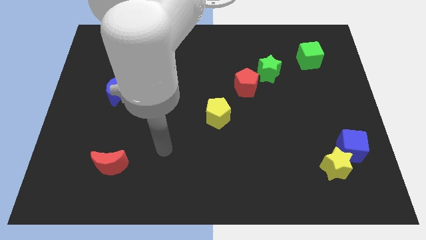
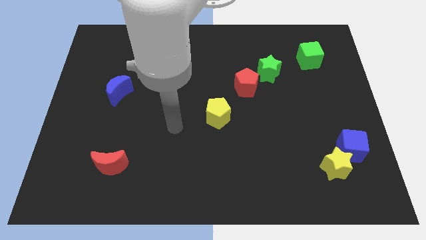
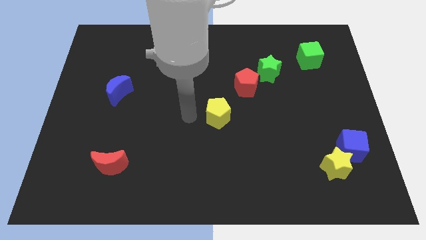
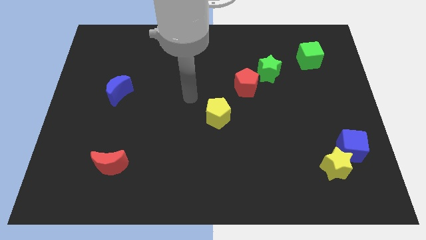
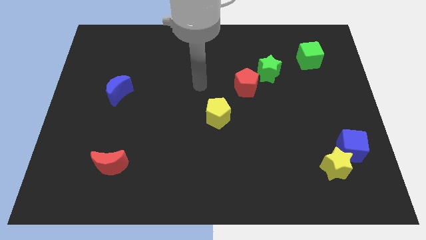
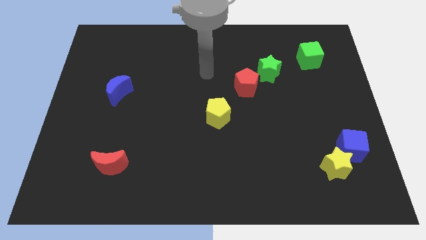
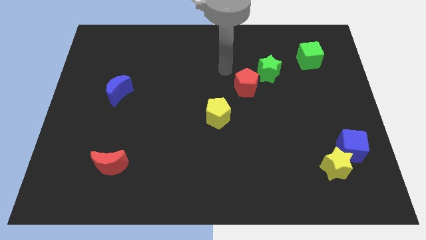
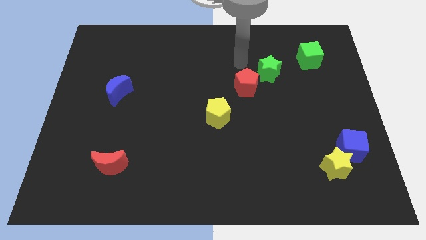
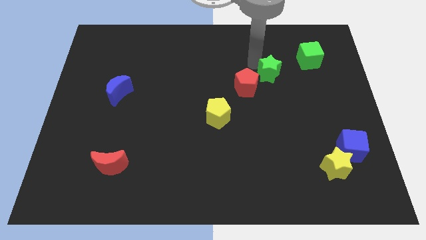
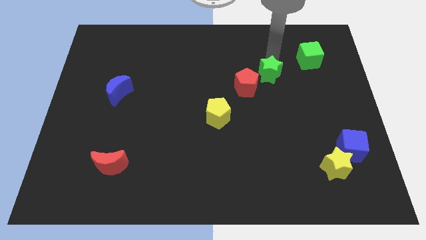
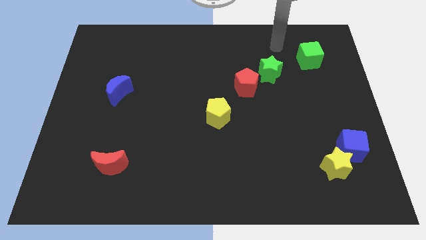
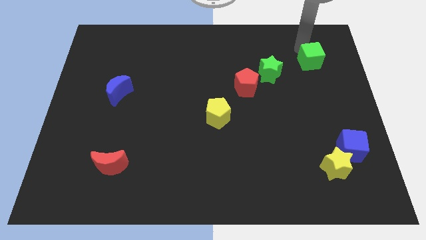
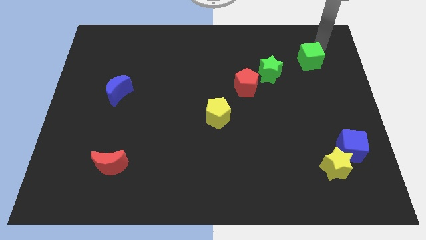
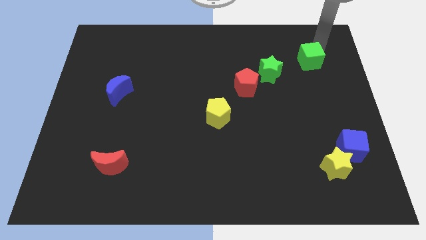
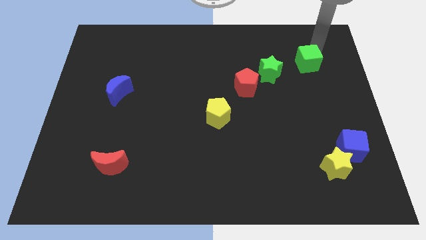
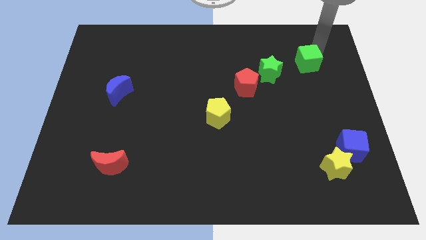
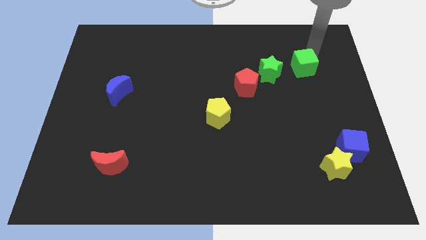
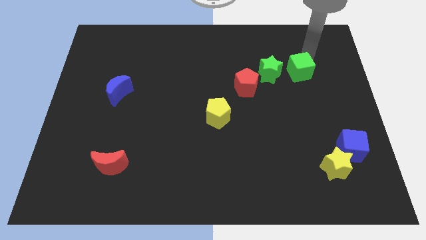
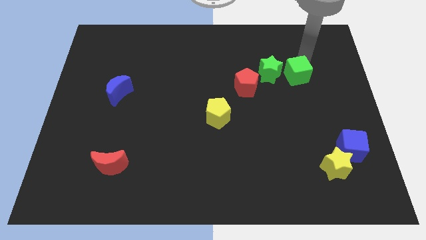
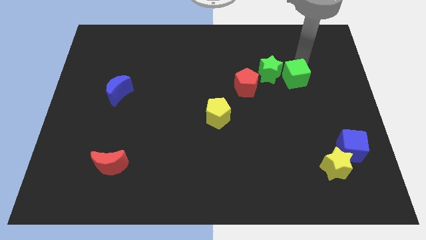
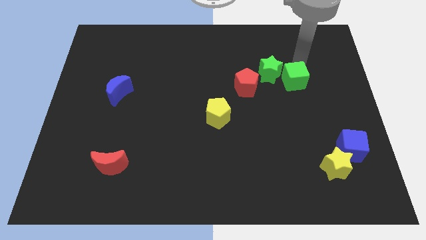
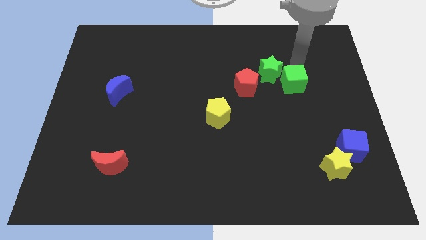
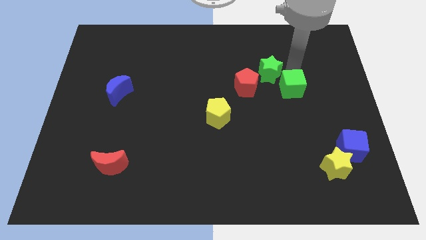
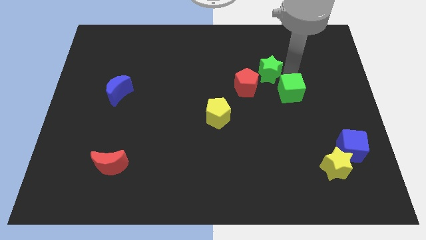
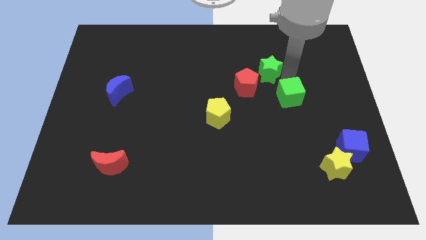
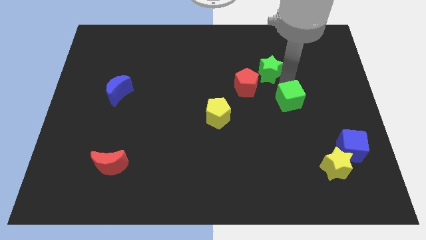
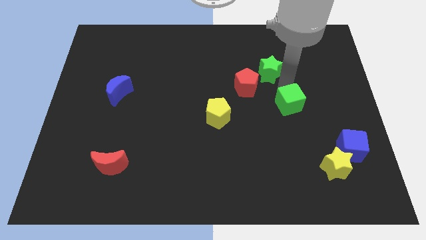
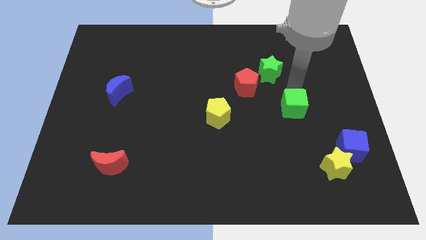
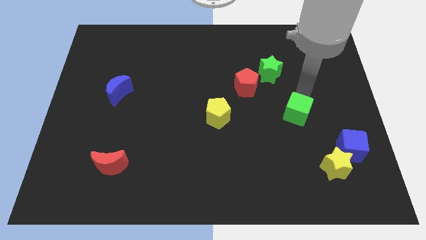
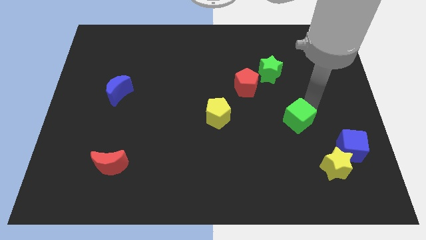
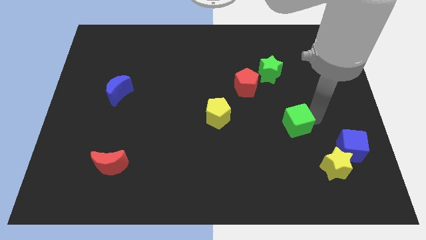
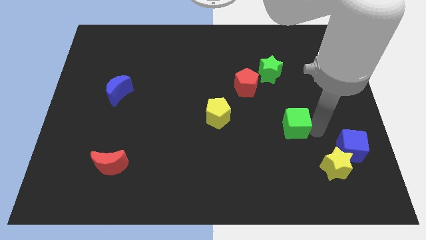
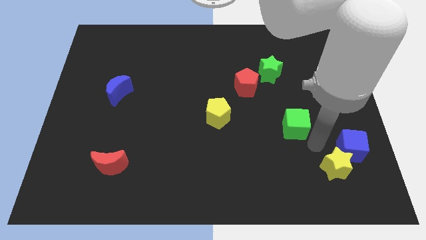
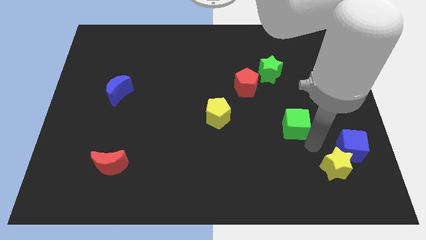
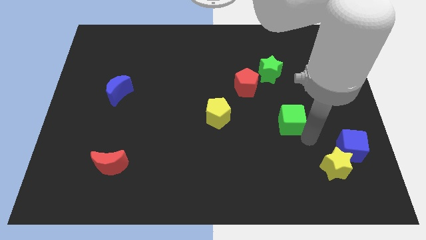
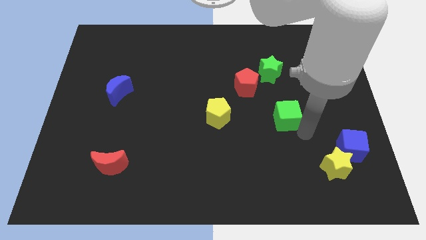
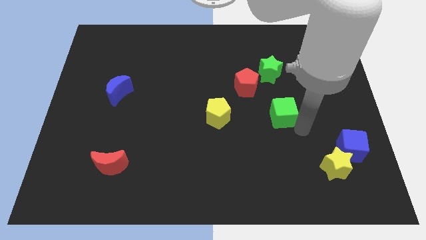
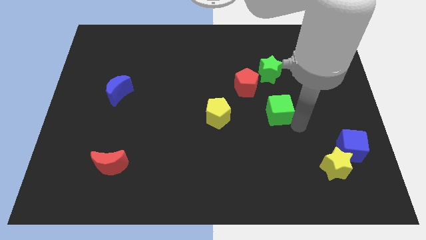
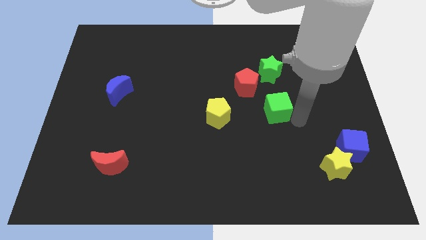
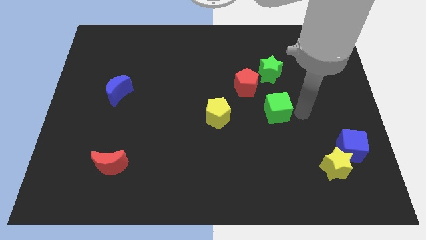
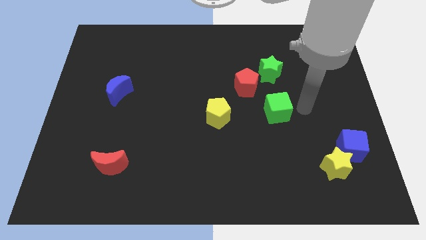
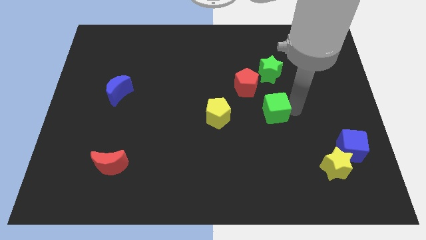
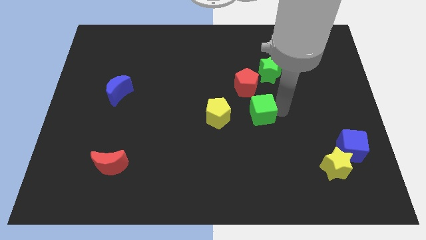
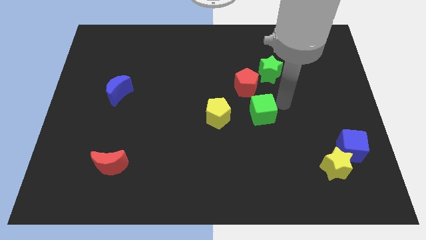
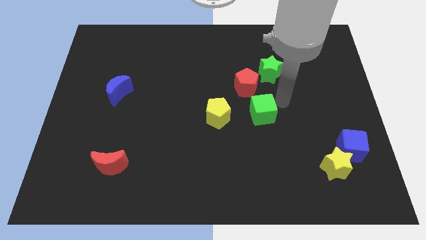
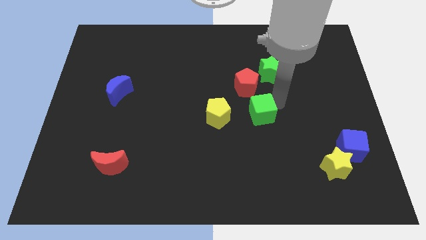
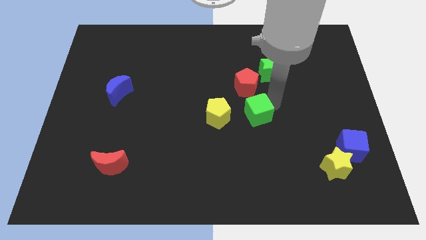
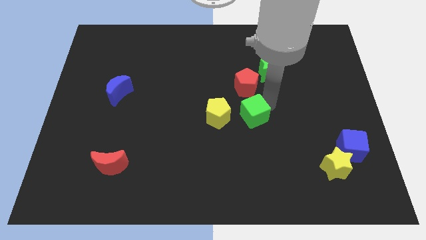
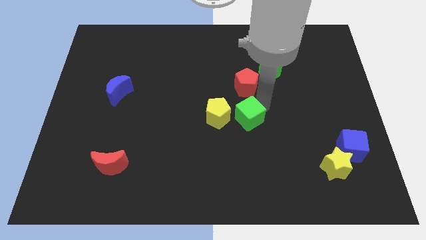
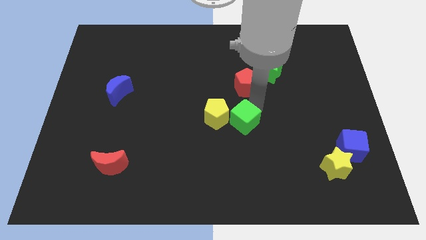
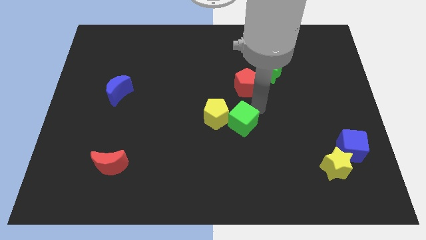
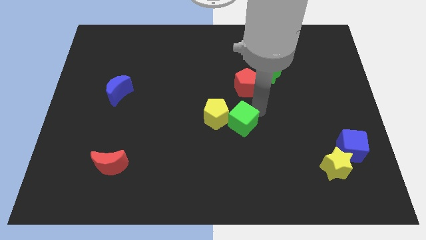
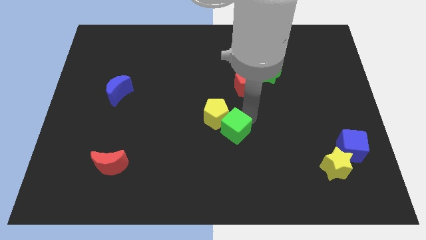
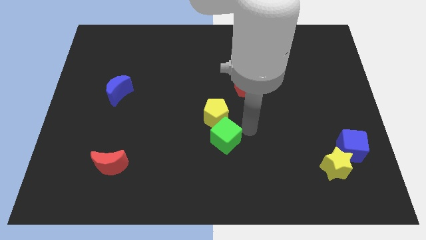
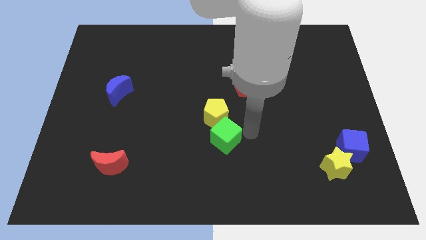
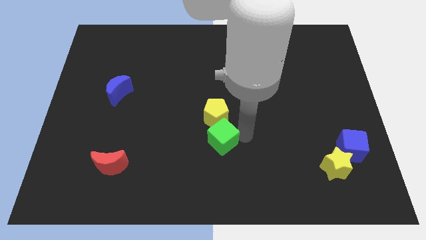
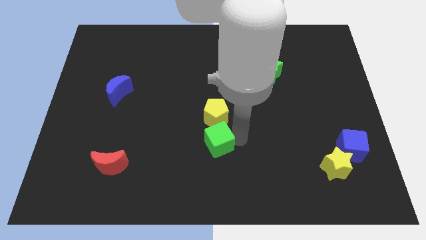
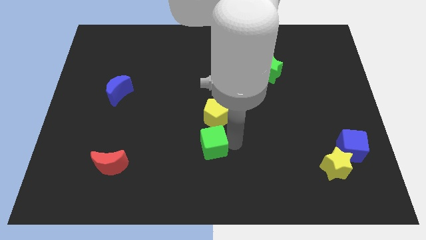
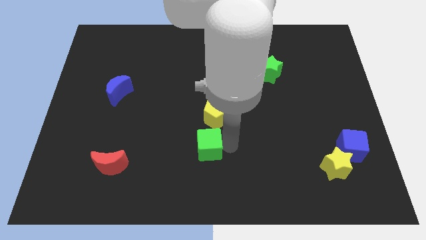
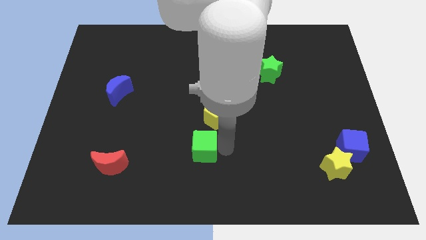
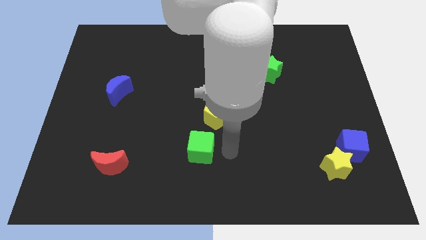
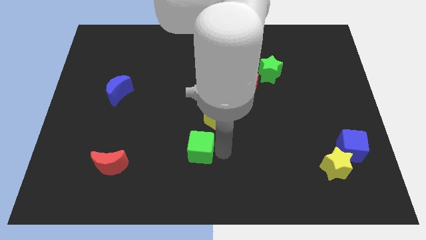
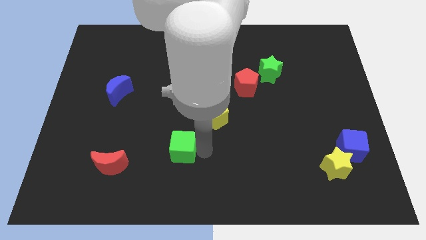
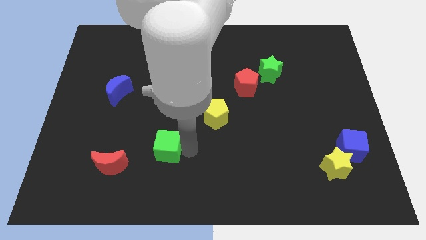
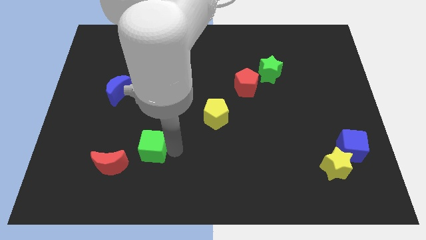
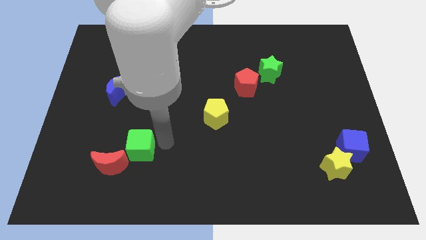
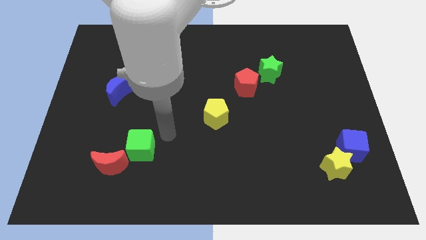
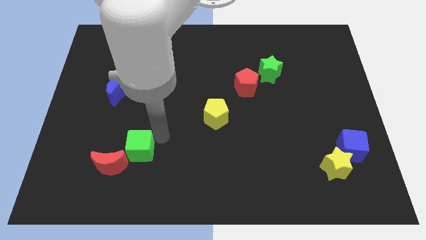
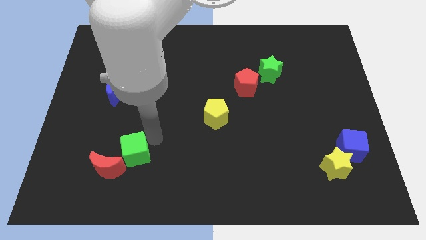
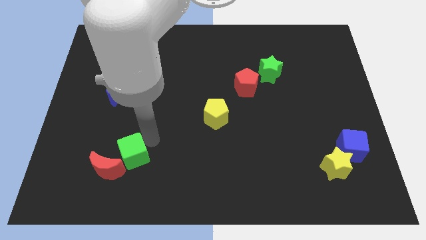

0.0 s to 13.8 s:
move the green cube next to the red moon
